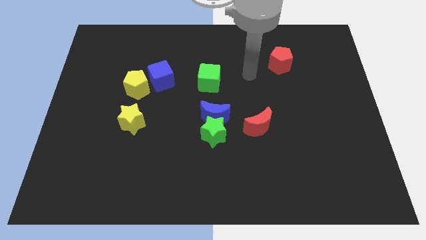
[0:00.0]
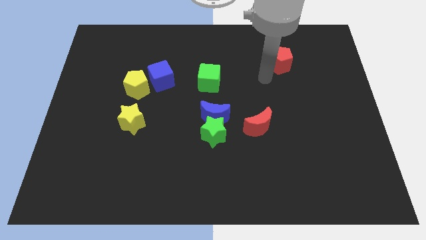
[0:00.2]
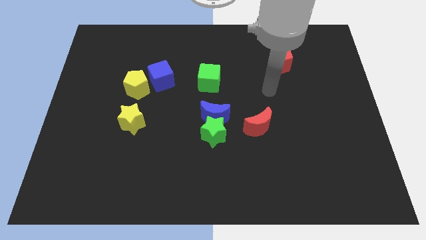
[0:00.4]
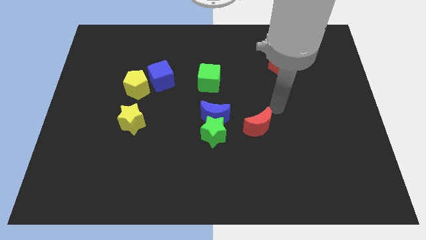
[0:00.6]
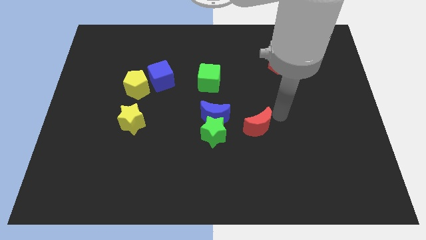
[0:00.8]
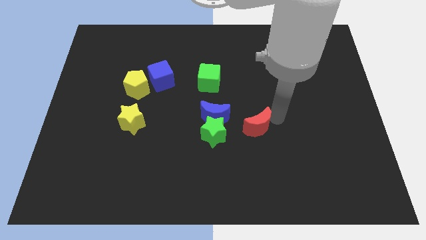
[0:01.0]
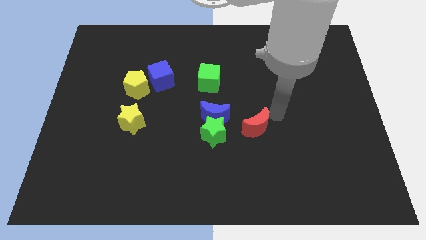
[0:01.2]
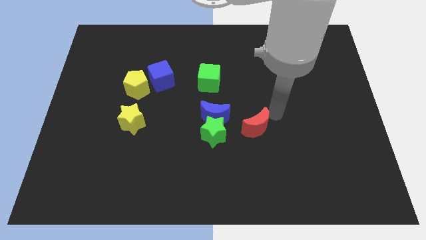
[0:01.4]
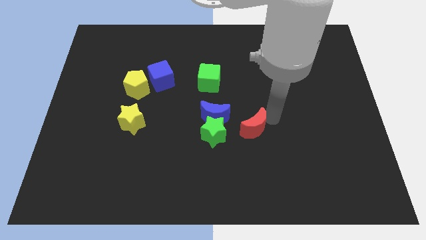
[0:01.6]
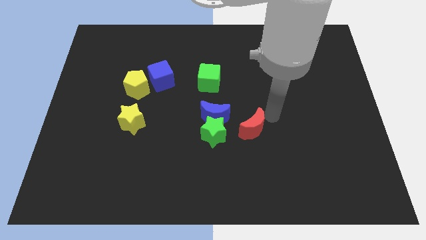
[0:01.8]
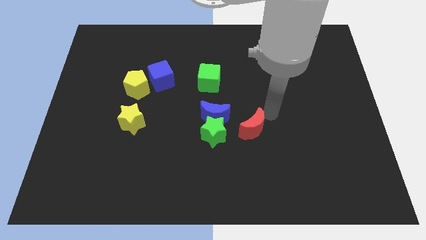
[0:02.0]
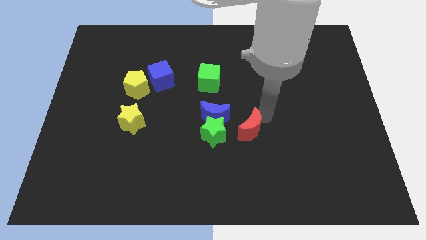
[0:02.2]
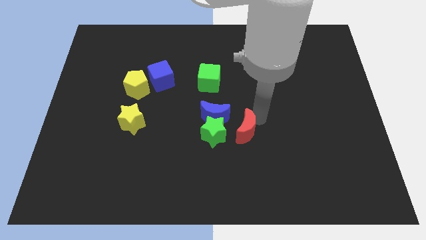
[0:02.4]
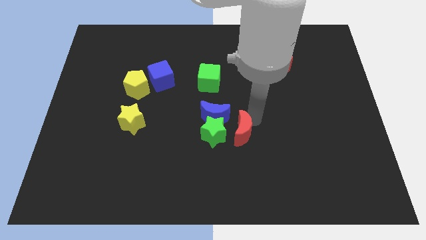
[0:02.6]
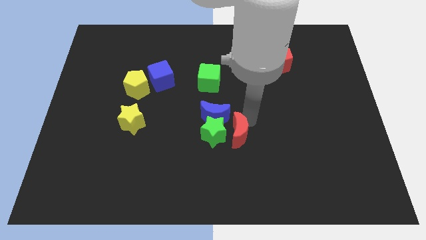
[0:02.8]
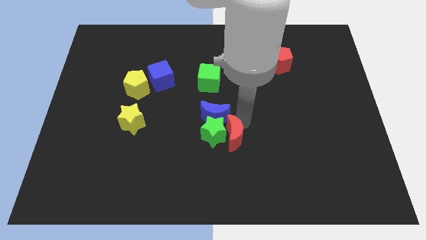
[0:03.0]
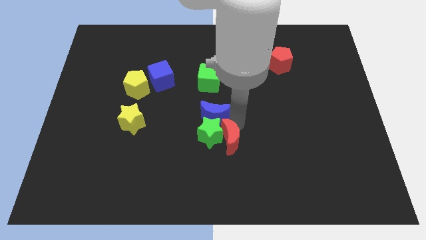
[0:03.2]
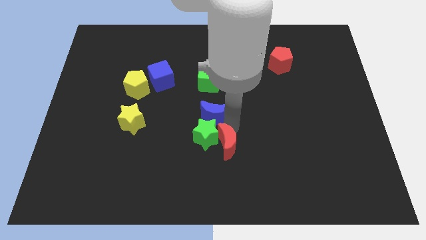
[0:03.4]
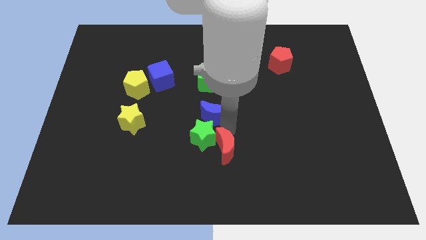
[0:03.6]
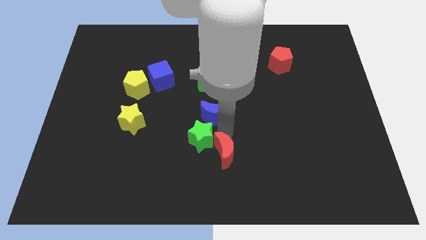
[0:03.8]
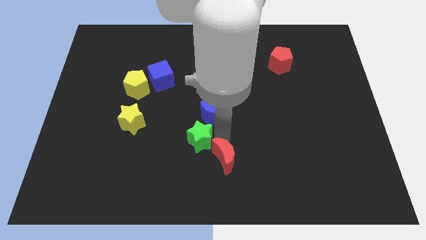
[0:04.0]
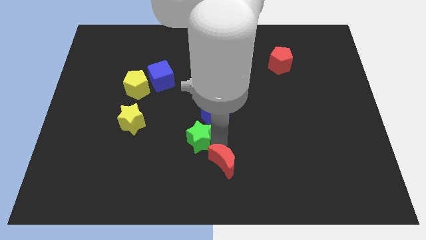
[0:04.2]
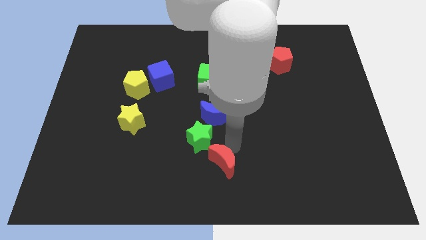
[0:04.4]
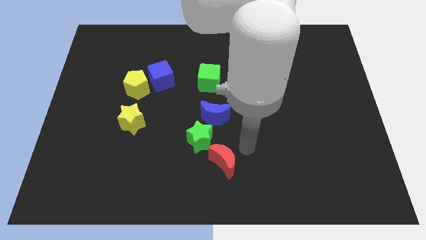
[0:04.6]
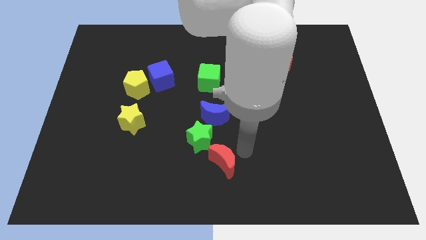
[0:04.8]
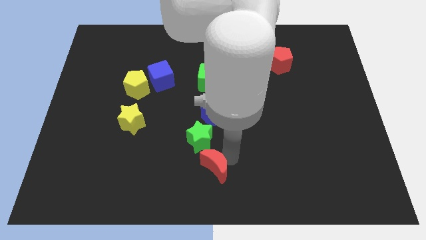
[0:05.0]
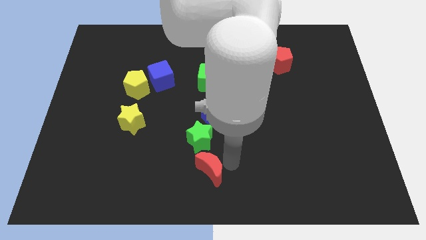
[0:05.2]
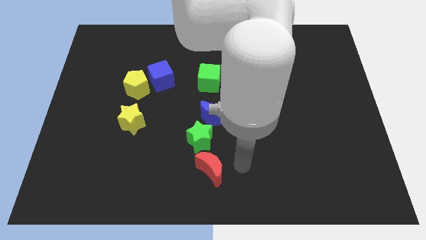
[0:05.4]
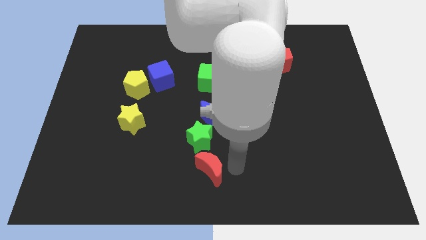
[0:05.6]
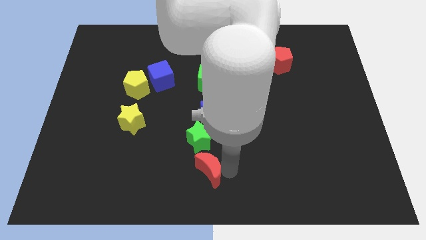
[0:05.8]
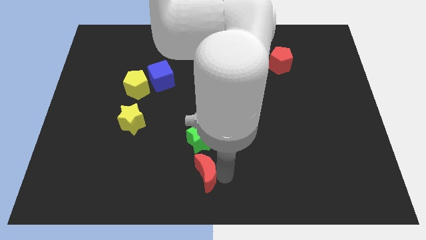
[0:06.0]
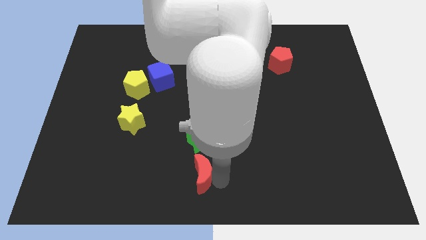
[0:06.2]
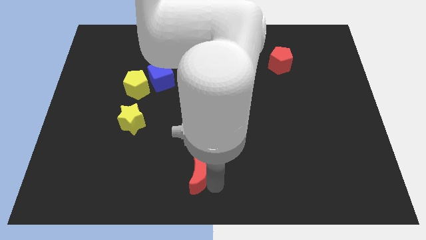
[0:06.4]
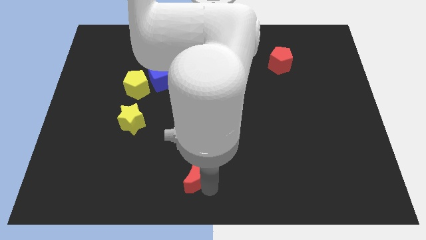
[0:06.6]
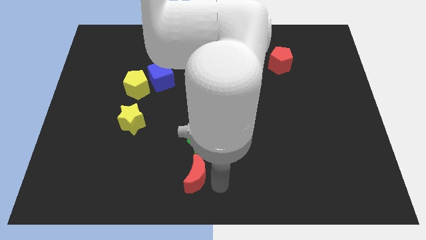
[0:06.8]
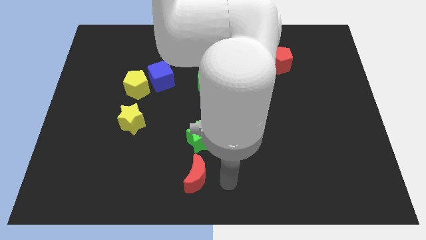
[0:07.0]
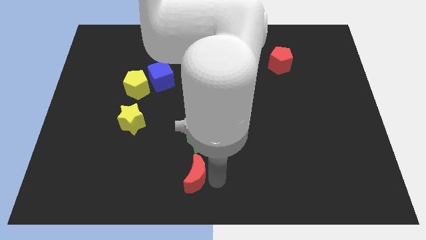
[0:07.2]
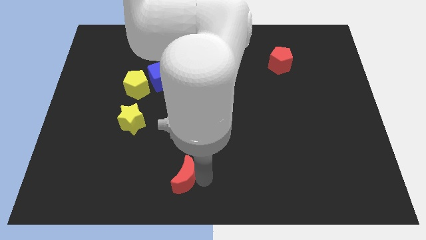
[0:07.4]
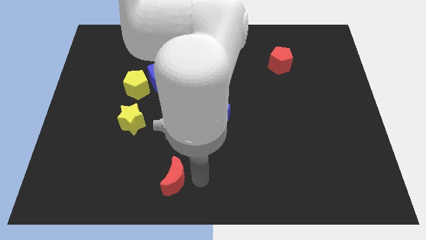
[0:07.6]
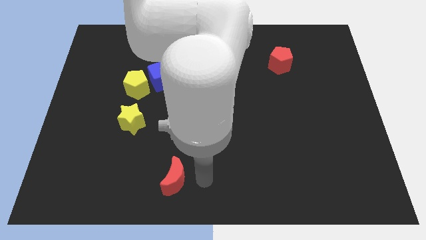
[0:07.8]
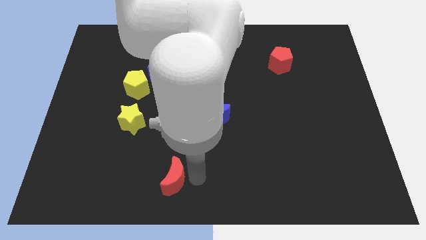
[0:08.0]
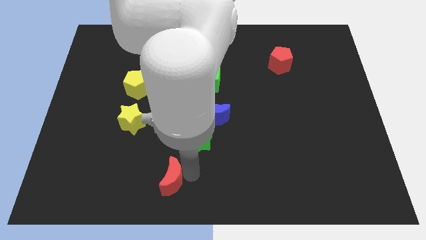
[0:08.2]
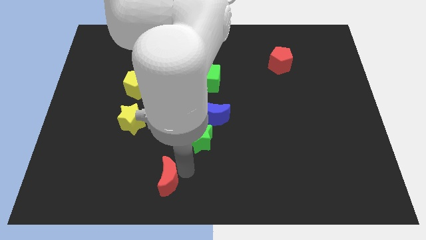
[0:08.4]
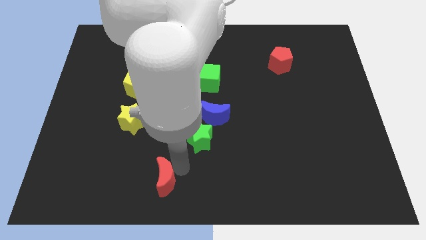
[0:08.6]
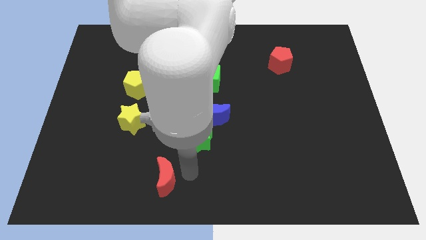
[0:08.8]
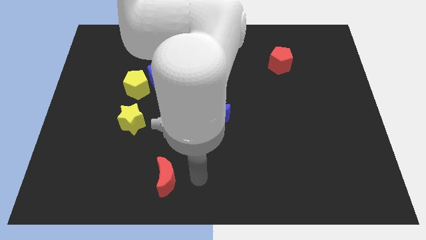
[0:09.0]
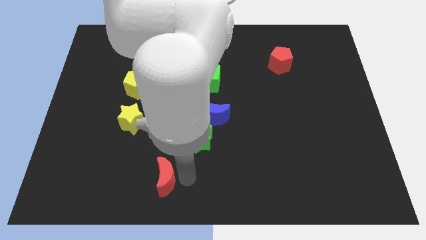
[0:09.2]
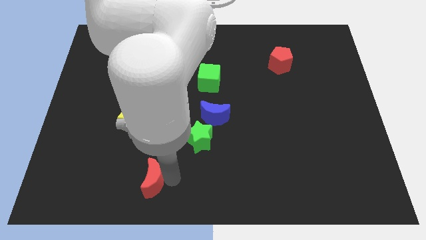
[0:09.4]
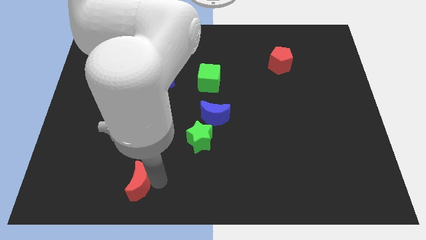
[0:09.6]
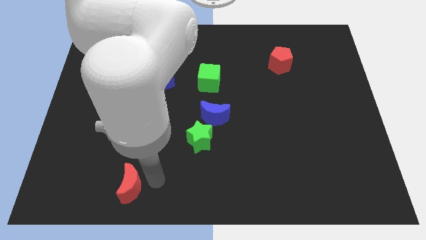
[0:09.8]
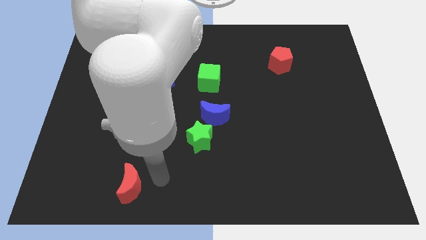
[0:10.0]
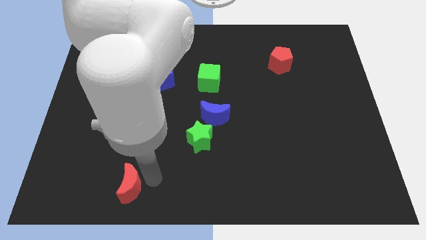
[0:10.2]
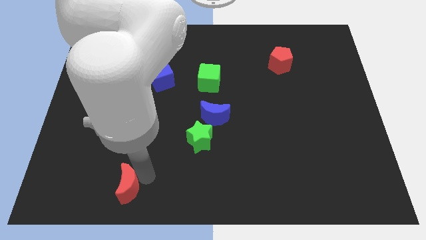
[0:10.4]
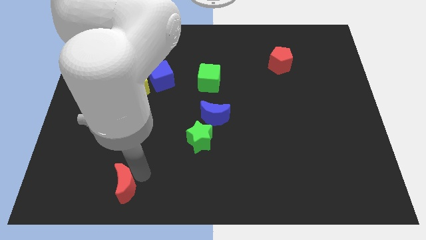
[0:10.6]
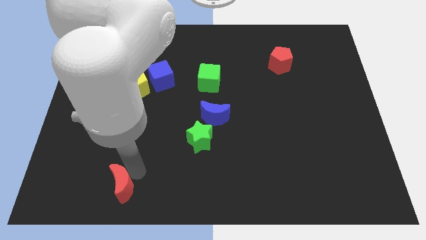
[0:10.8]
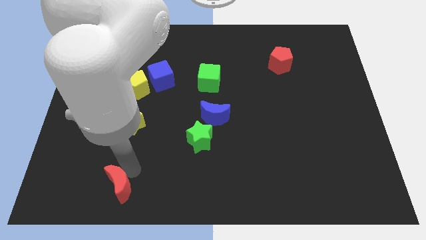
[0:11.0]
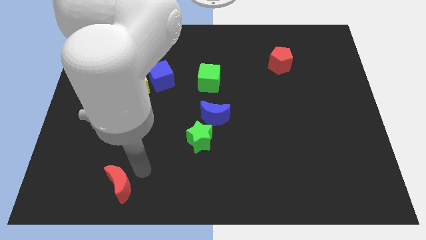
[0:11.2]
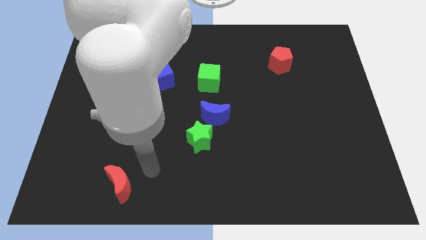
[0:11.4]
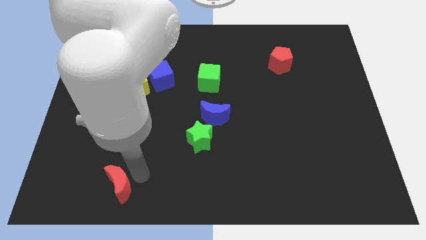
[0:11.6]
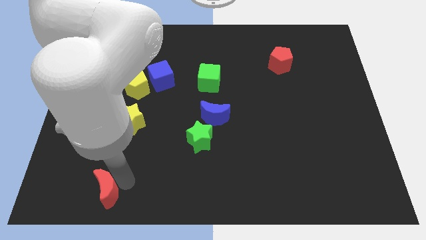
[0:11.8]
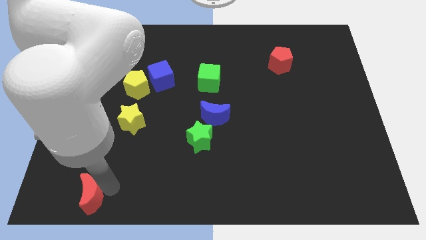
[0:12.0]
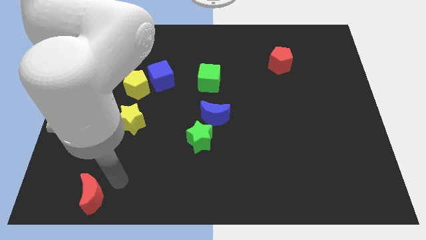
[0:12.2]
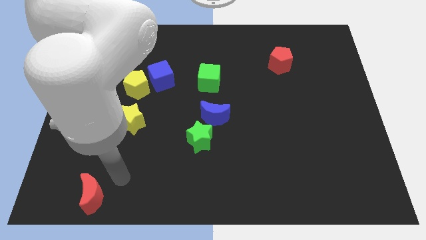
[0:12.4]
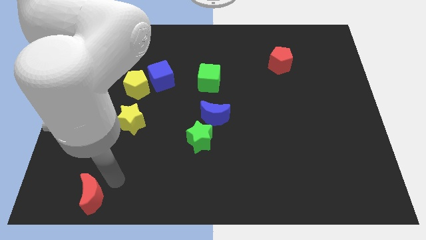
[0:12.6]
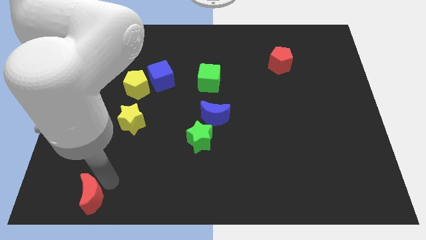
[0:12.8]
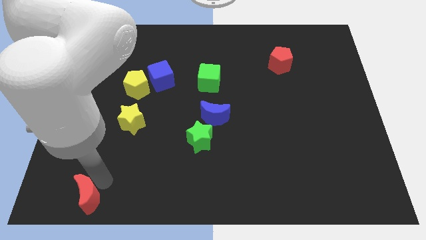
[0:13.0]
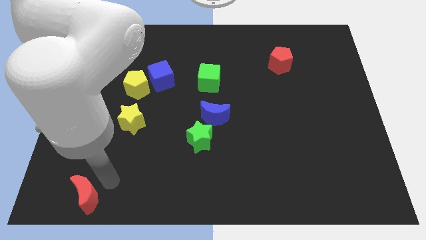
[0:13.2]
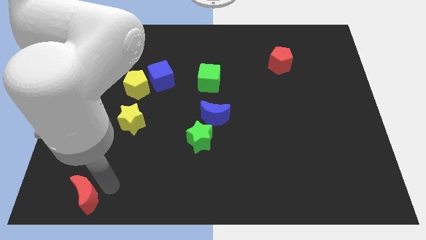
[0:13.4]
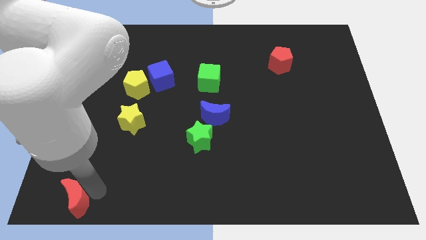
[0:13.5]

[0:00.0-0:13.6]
push the red moon to the bottom left corner
